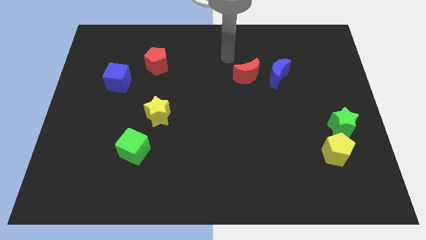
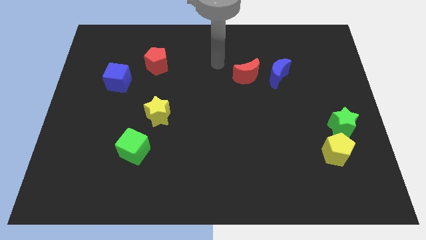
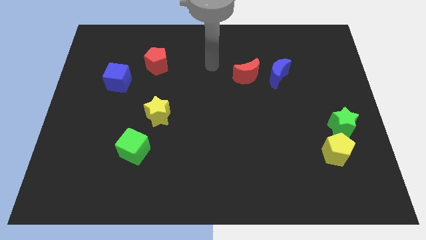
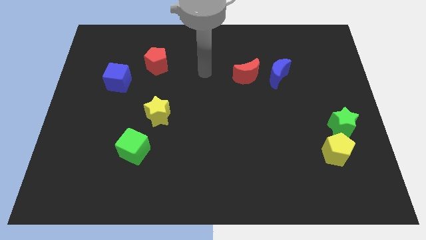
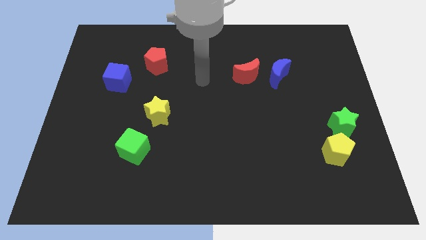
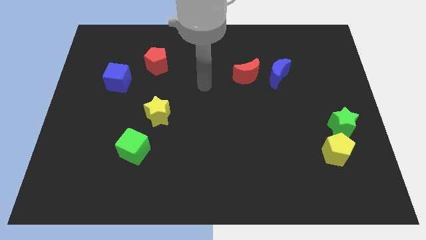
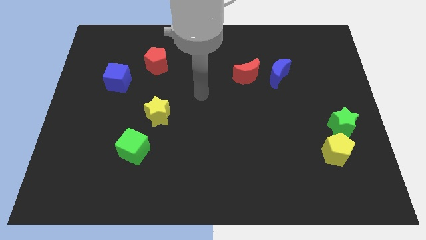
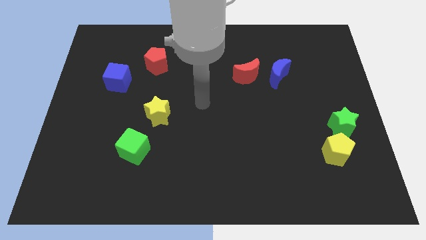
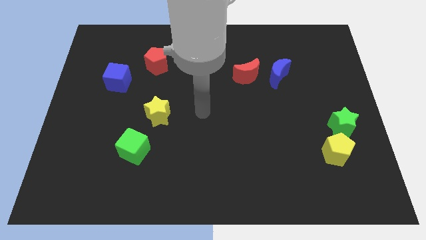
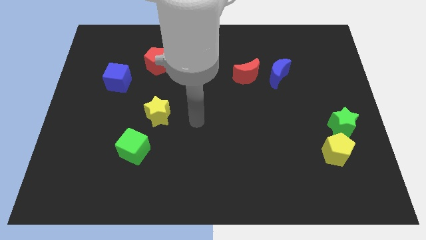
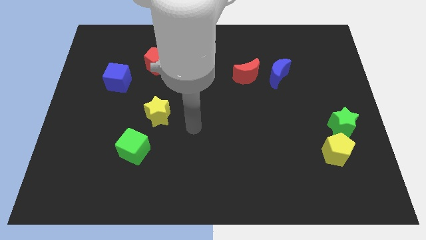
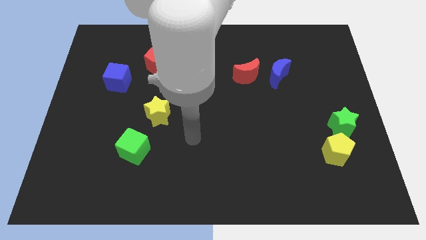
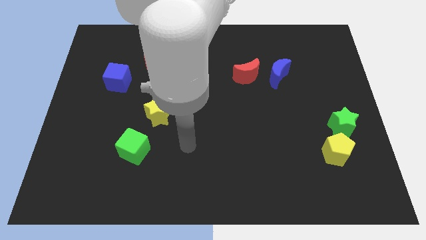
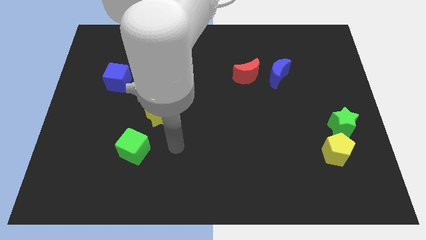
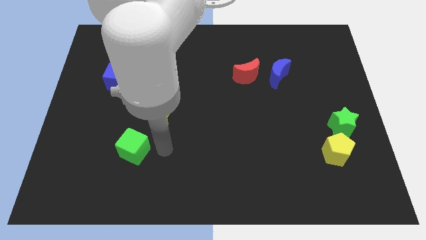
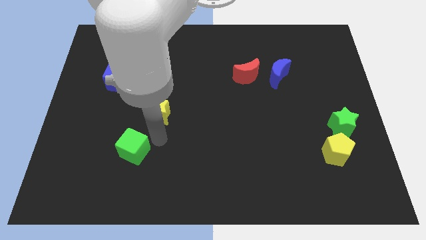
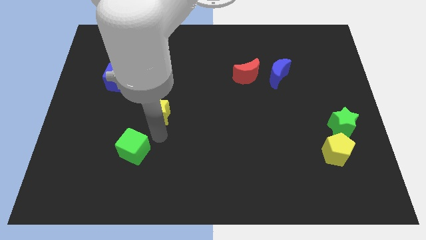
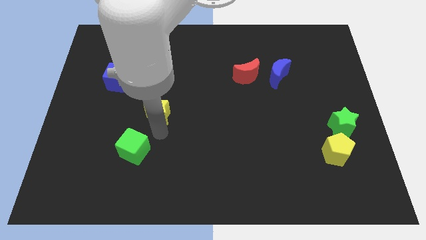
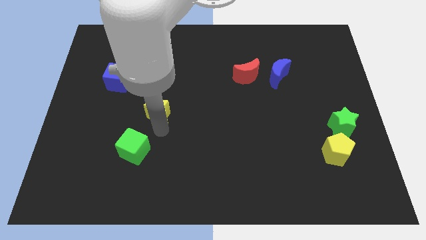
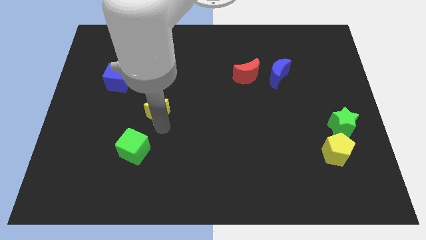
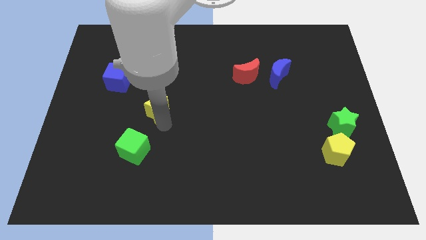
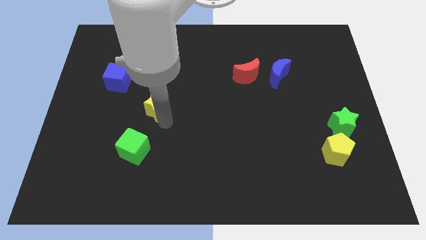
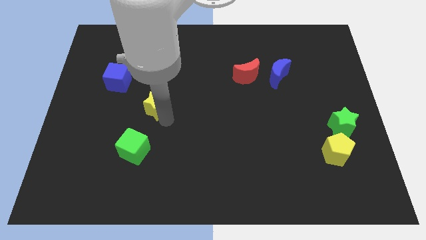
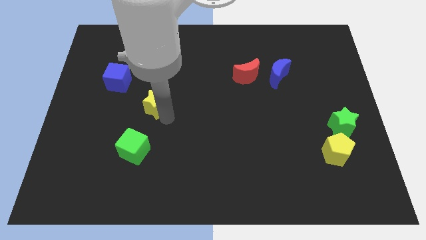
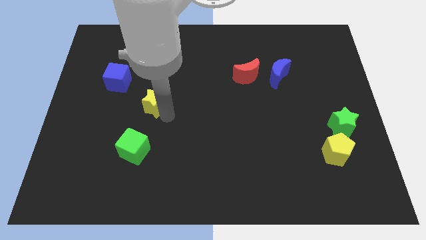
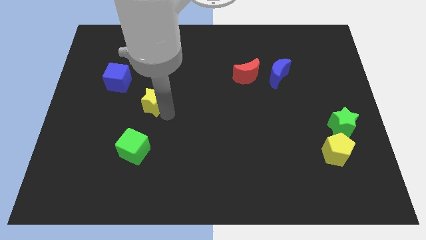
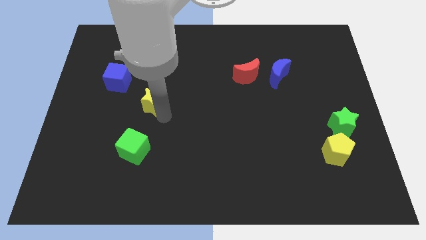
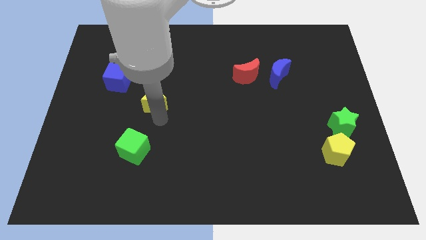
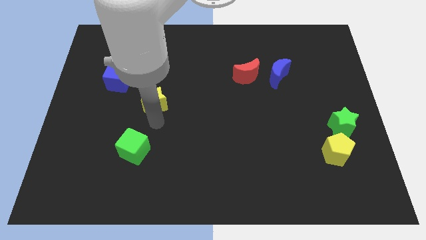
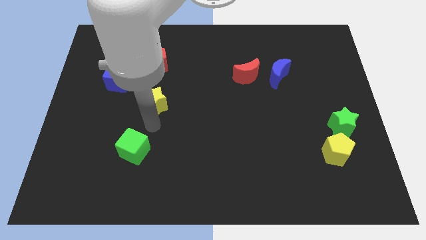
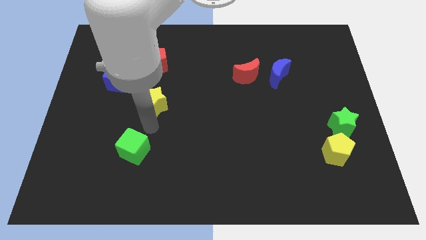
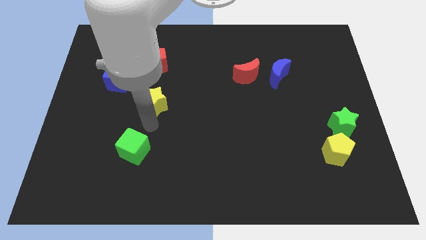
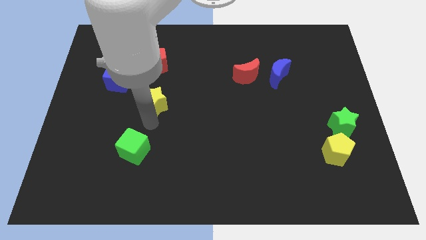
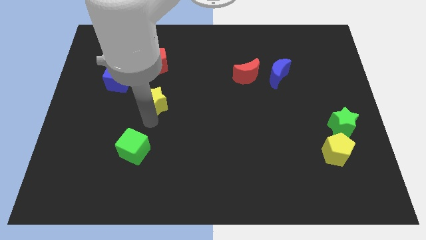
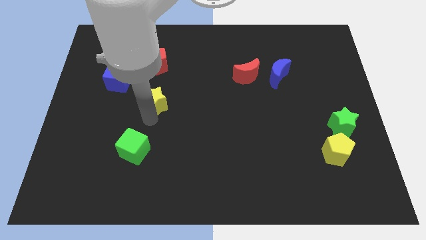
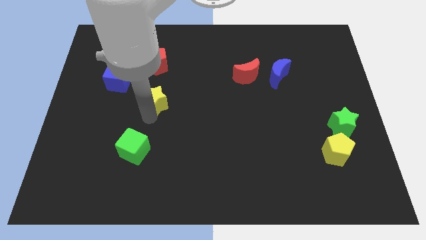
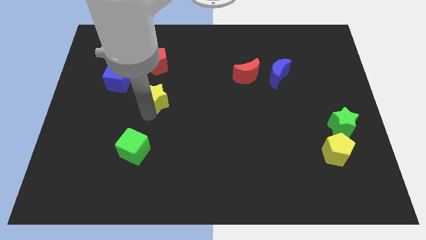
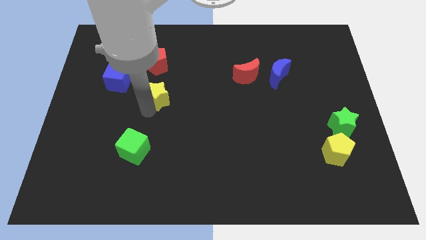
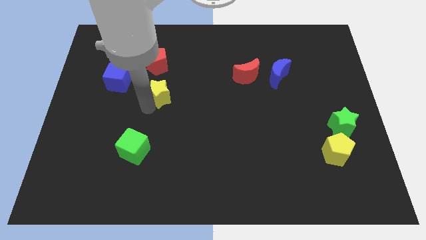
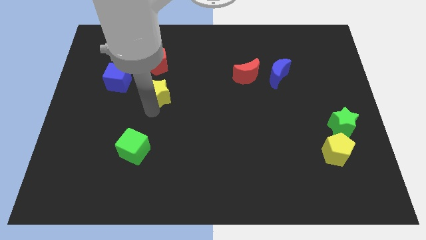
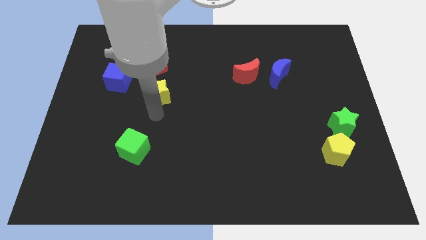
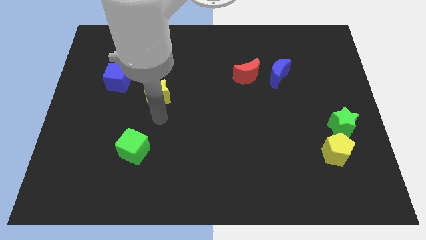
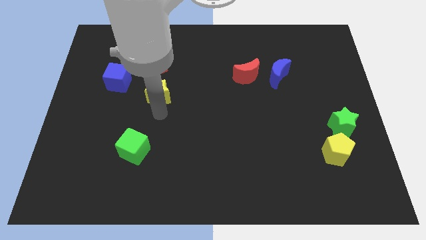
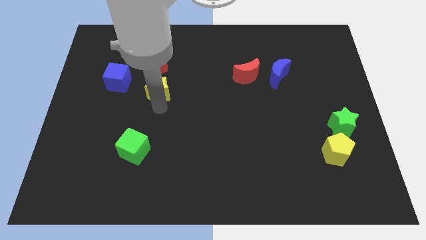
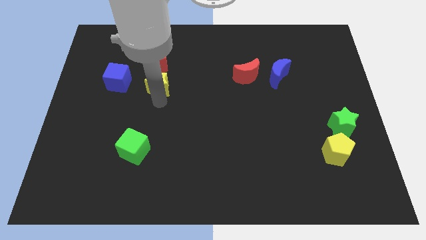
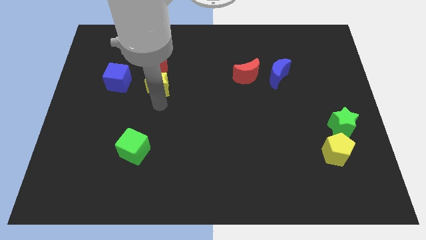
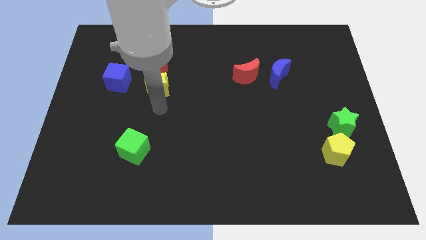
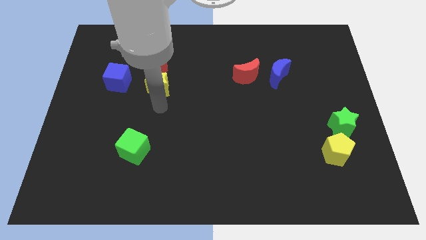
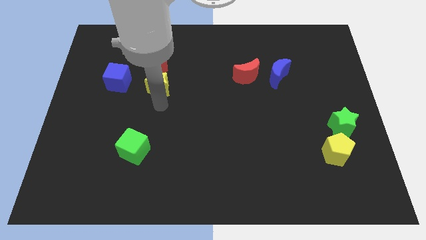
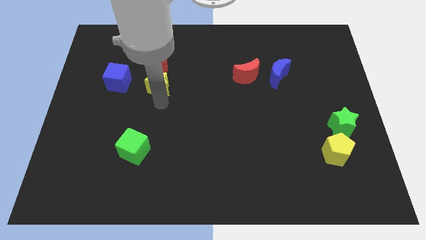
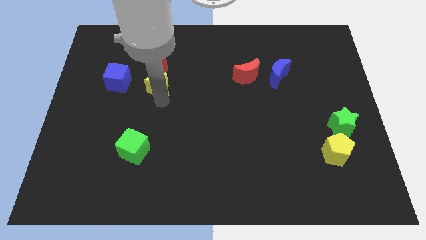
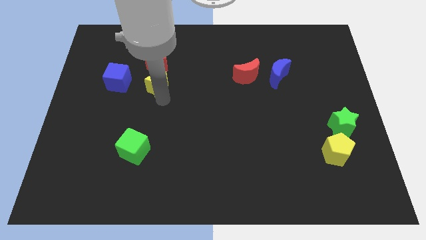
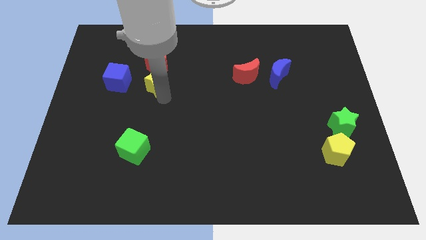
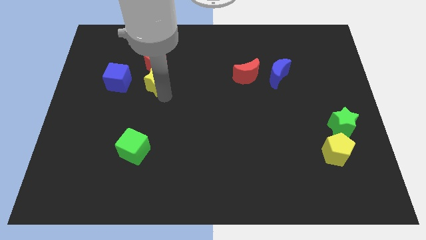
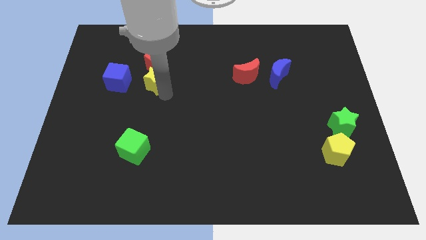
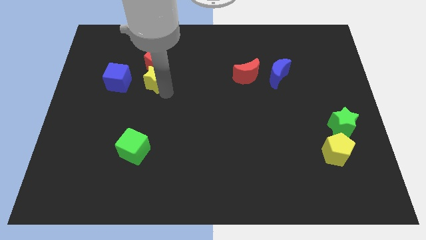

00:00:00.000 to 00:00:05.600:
push the yellow star towards the red pentagon
